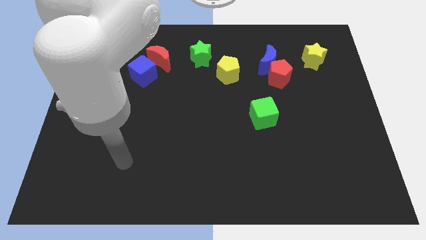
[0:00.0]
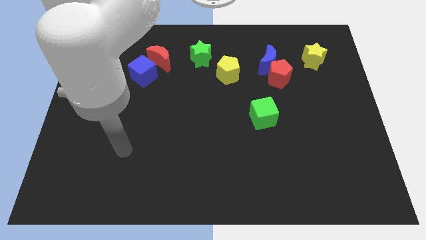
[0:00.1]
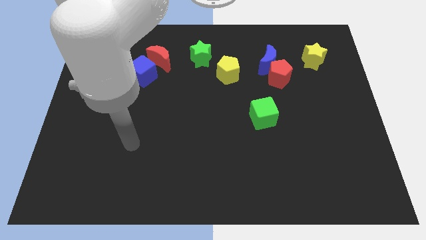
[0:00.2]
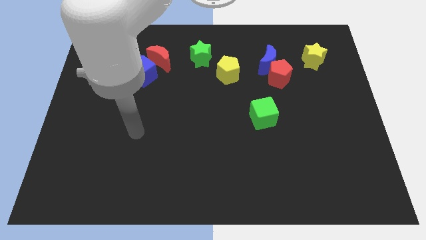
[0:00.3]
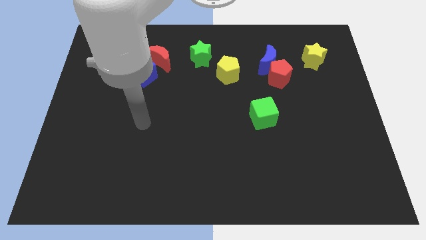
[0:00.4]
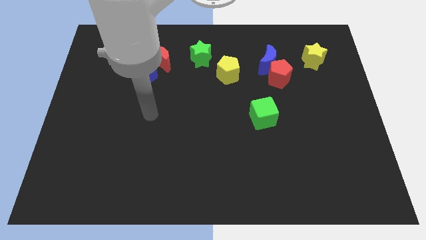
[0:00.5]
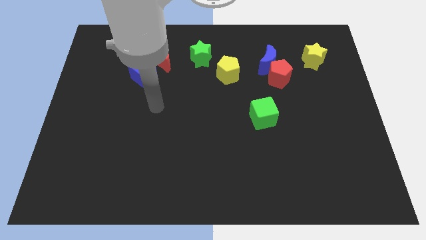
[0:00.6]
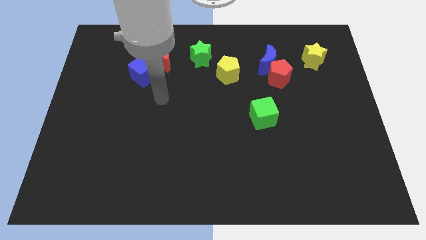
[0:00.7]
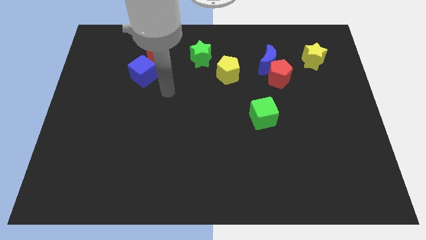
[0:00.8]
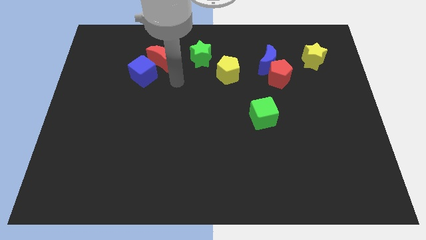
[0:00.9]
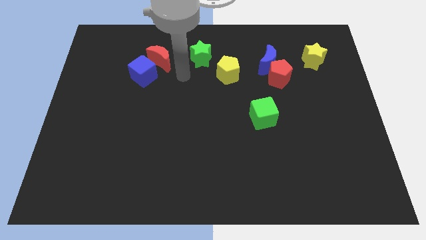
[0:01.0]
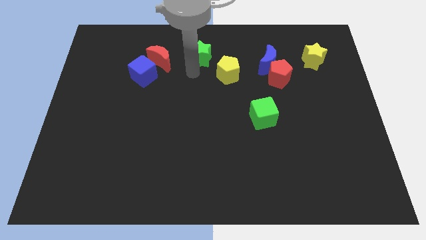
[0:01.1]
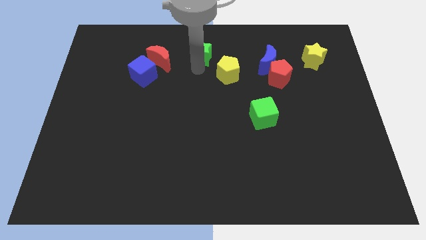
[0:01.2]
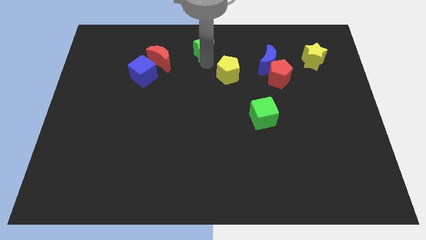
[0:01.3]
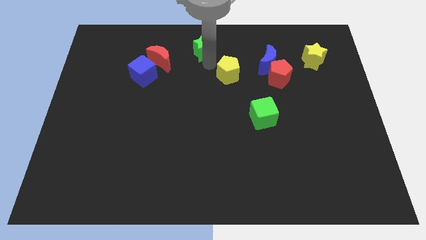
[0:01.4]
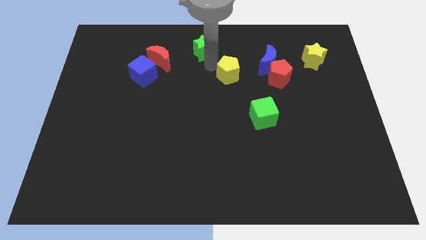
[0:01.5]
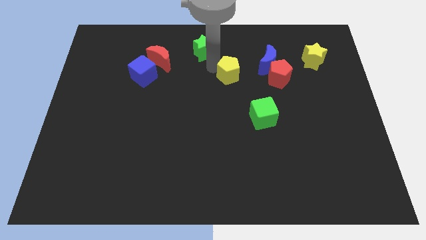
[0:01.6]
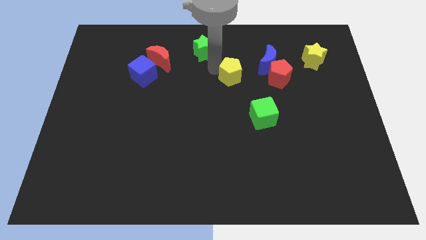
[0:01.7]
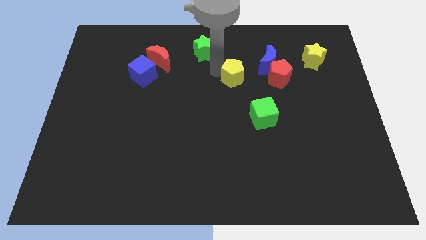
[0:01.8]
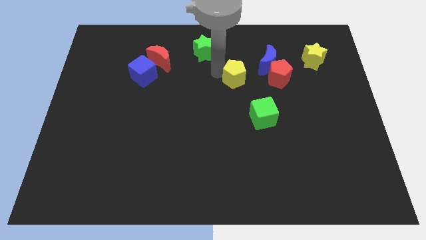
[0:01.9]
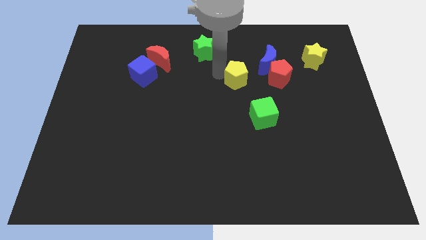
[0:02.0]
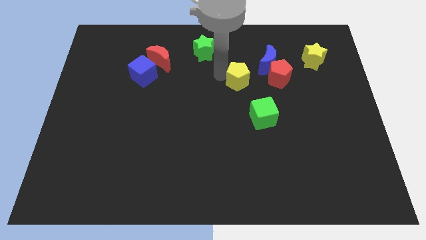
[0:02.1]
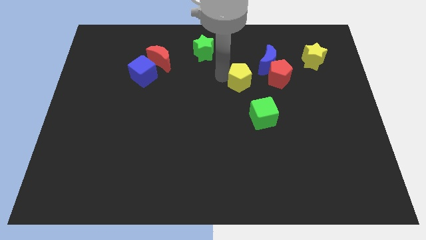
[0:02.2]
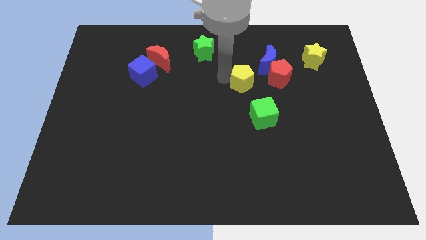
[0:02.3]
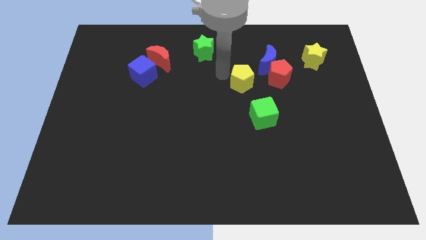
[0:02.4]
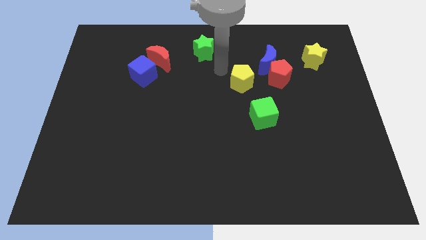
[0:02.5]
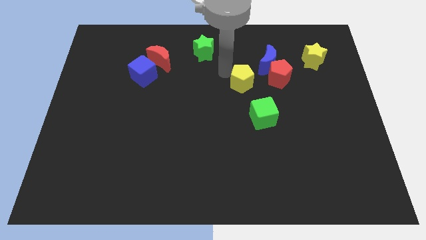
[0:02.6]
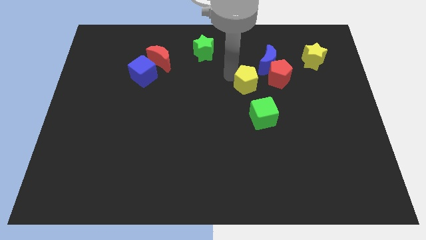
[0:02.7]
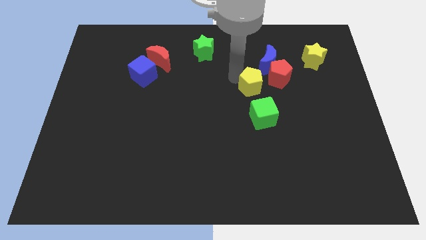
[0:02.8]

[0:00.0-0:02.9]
slightly move the yellow pentagon down and to the right diagonally

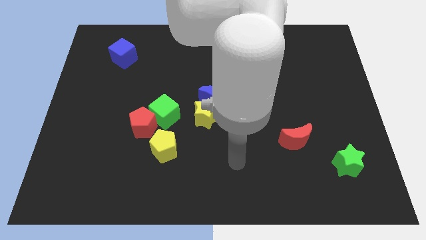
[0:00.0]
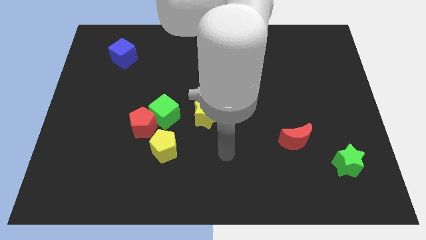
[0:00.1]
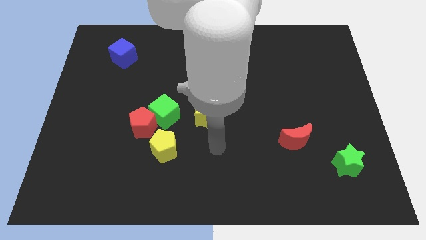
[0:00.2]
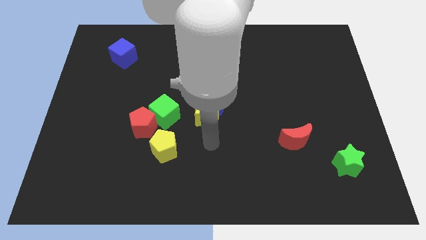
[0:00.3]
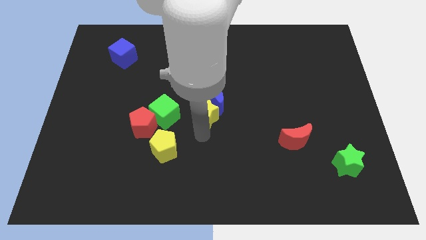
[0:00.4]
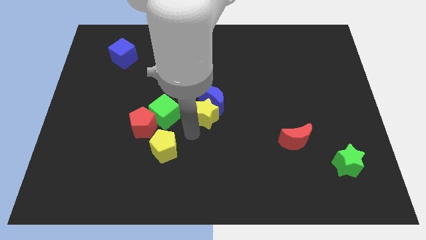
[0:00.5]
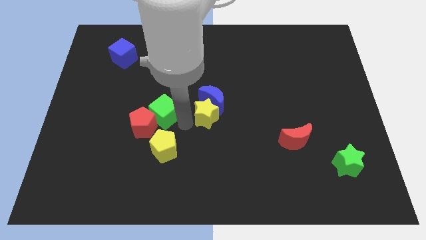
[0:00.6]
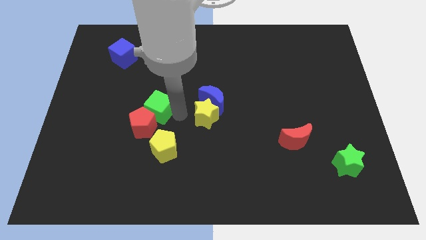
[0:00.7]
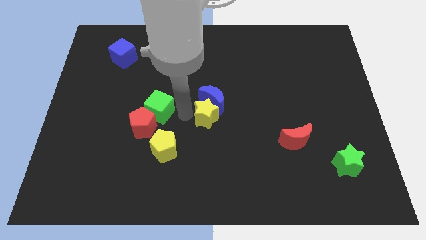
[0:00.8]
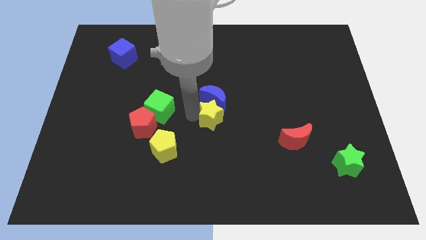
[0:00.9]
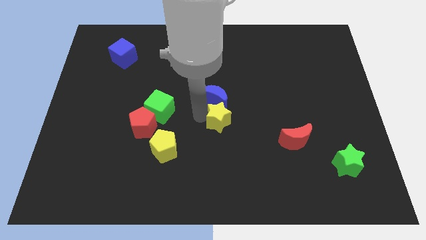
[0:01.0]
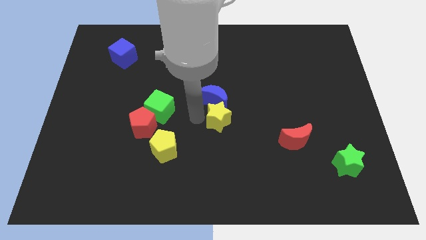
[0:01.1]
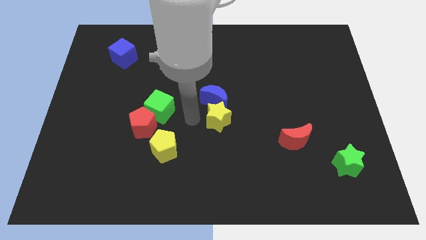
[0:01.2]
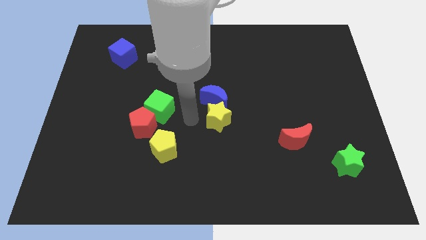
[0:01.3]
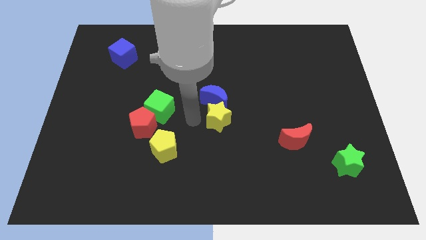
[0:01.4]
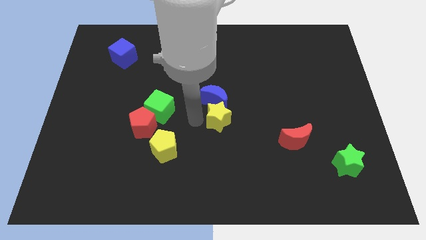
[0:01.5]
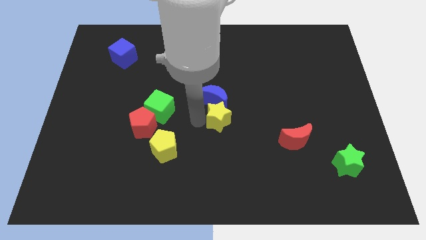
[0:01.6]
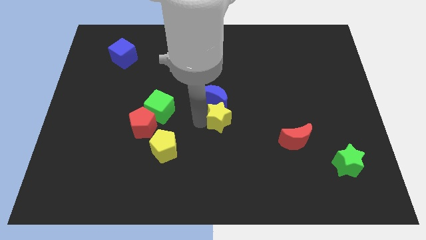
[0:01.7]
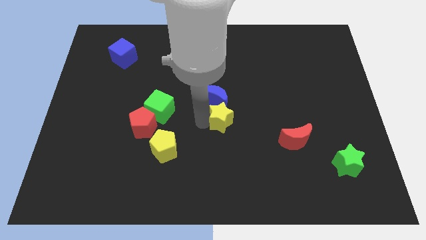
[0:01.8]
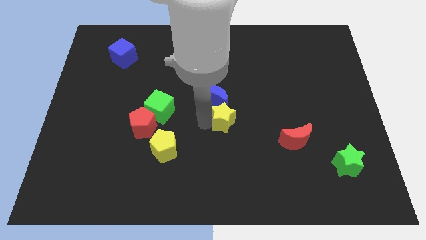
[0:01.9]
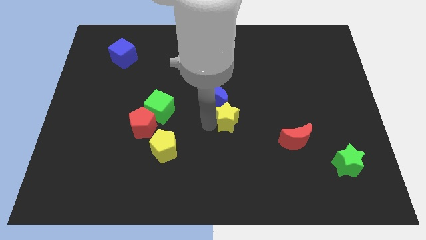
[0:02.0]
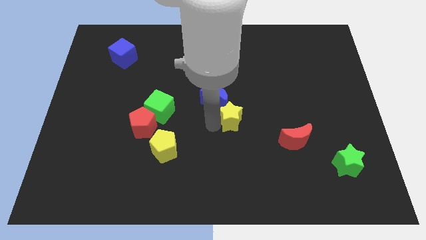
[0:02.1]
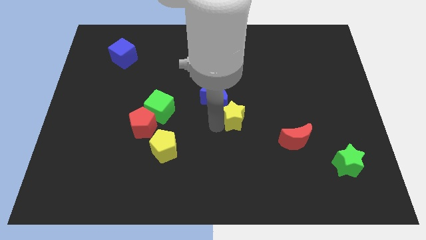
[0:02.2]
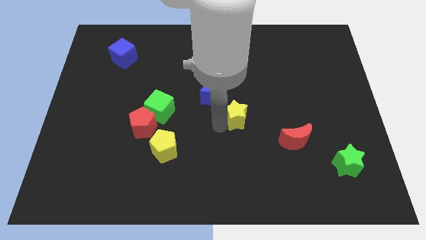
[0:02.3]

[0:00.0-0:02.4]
move the yellow star to the right somewhat

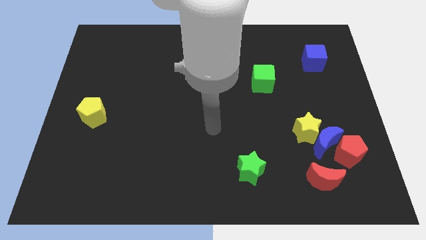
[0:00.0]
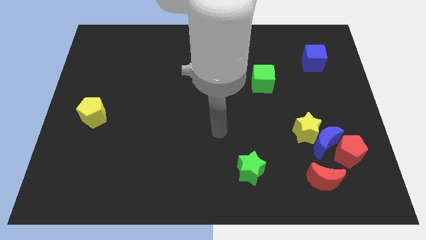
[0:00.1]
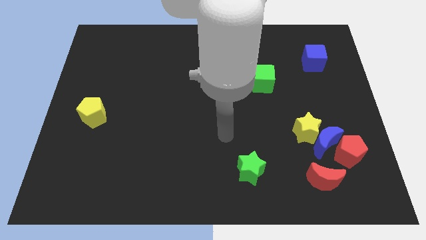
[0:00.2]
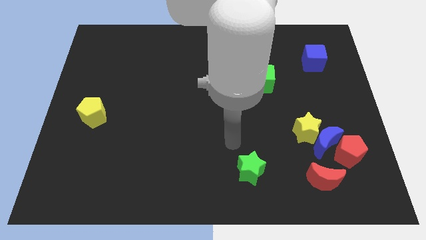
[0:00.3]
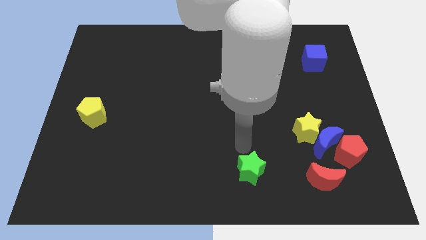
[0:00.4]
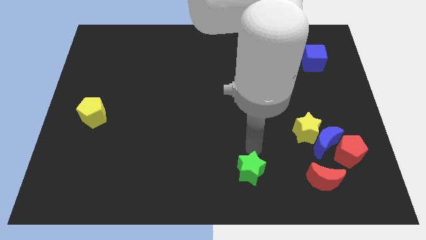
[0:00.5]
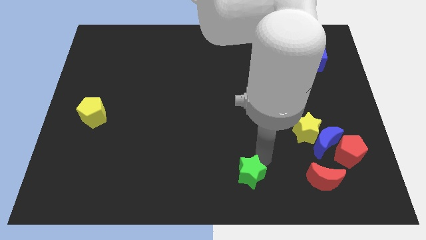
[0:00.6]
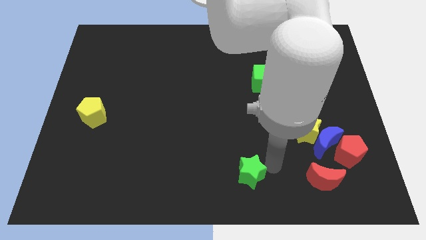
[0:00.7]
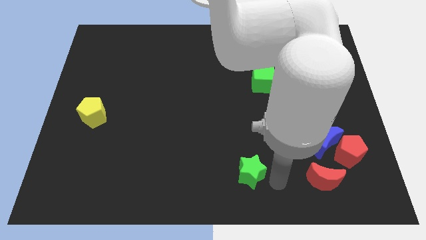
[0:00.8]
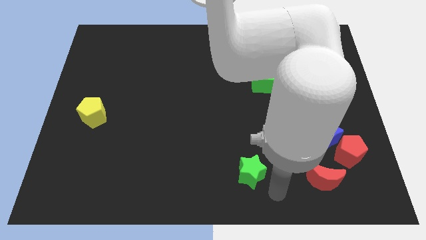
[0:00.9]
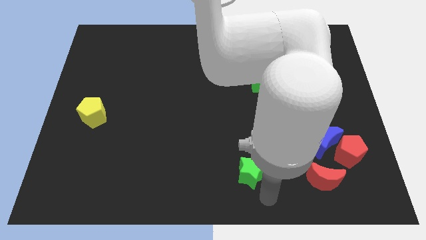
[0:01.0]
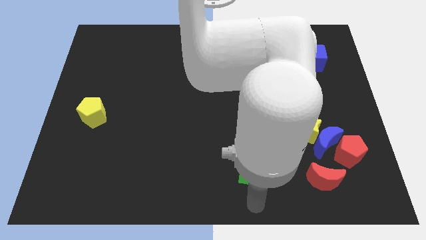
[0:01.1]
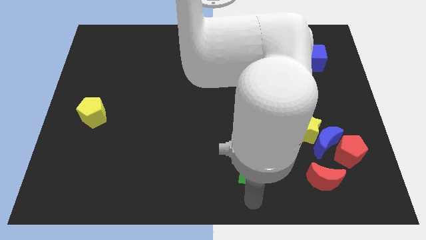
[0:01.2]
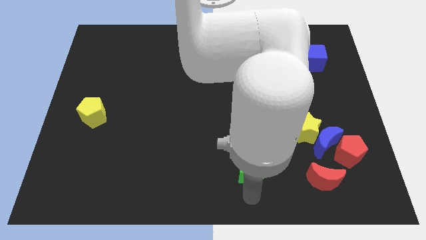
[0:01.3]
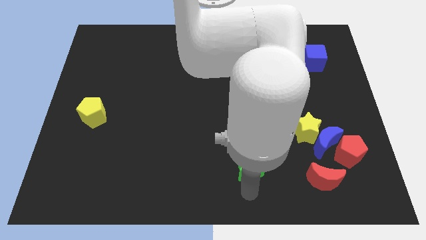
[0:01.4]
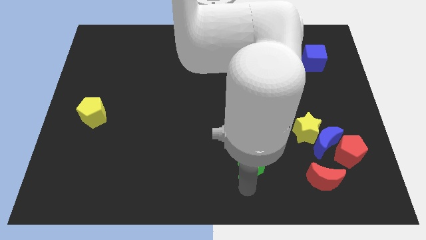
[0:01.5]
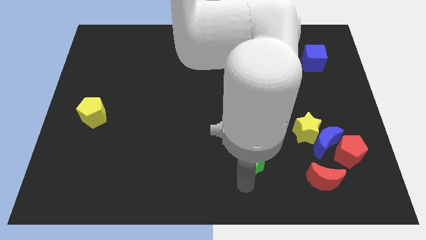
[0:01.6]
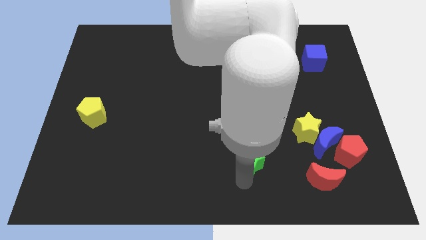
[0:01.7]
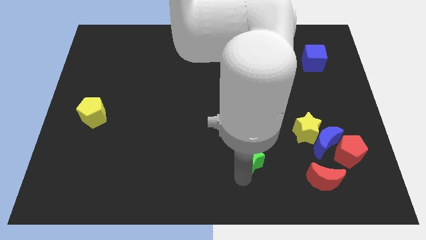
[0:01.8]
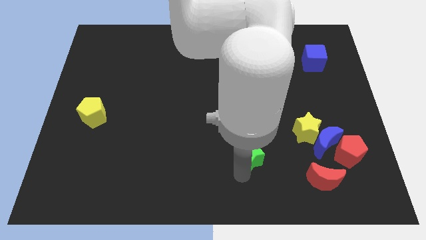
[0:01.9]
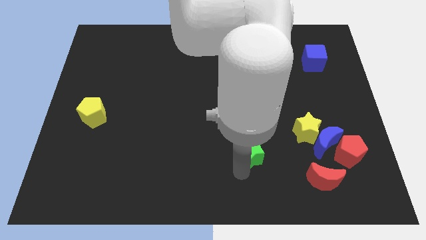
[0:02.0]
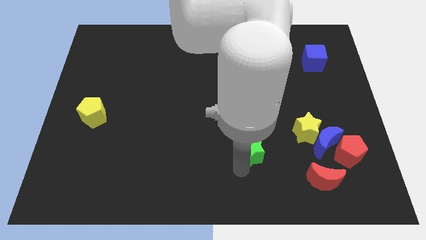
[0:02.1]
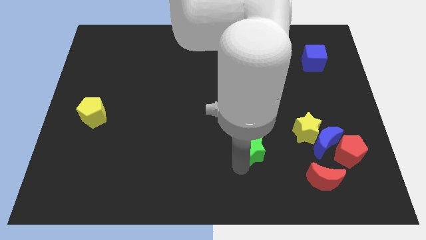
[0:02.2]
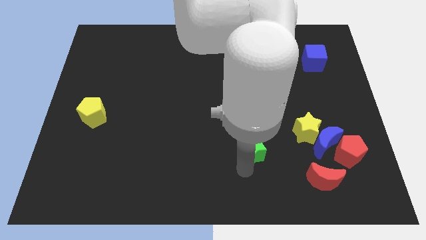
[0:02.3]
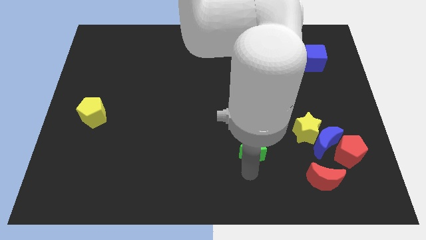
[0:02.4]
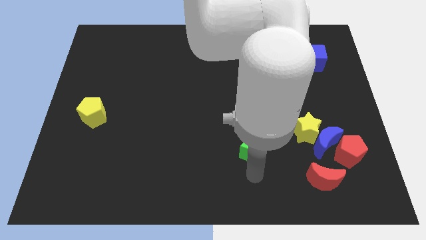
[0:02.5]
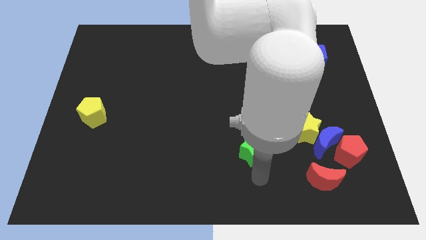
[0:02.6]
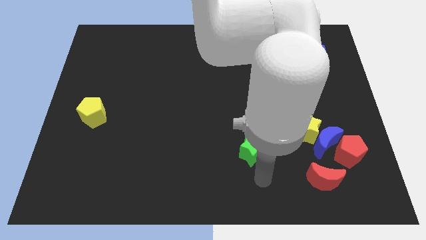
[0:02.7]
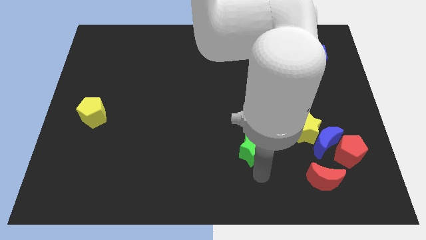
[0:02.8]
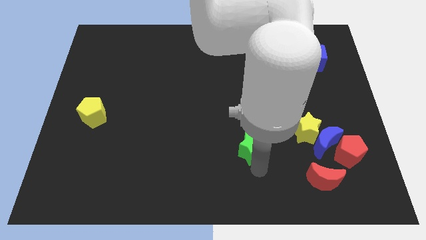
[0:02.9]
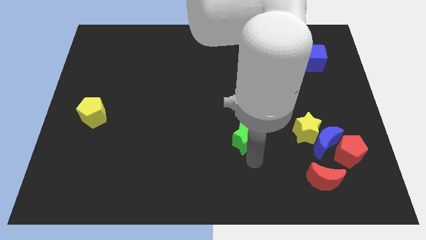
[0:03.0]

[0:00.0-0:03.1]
move the green star up a bit
